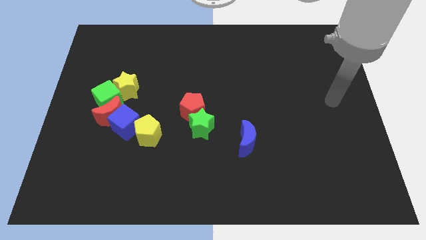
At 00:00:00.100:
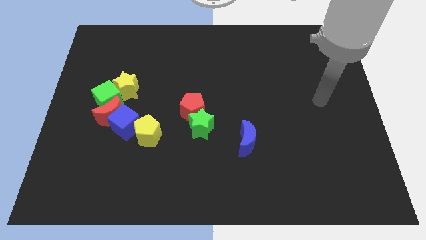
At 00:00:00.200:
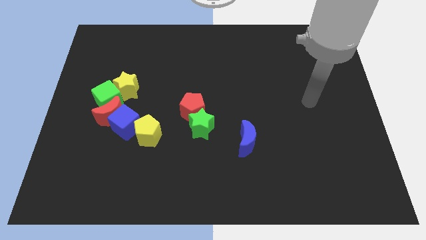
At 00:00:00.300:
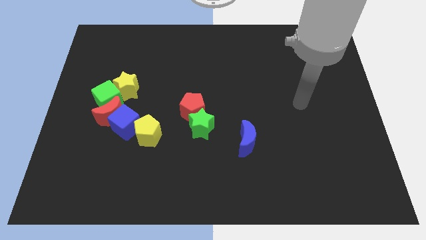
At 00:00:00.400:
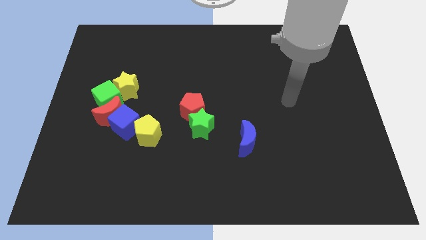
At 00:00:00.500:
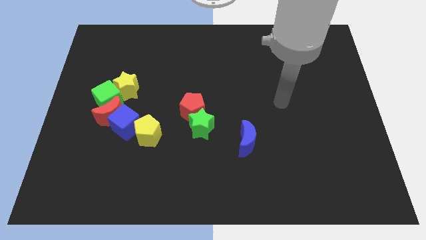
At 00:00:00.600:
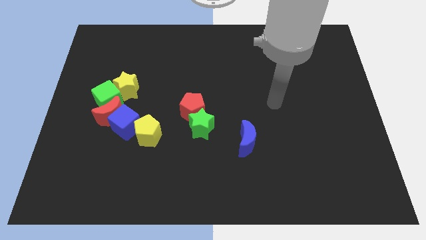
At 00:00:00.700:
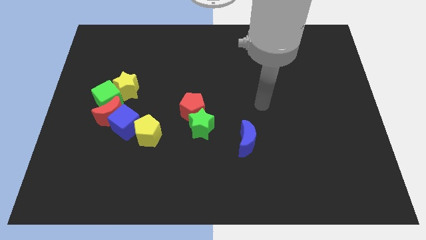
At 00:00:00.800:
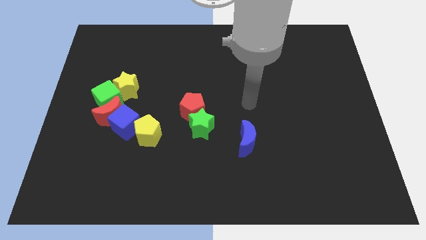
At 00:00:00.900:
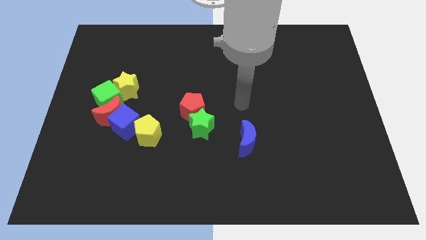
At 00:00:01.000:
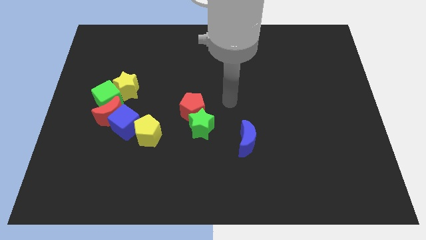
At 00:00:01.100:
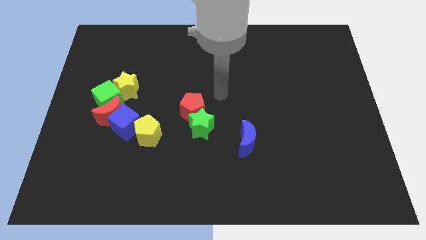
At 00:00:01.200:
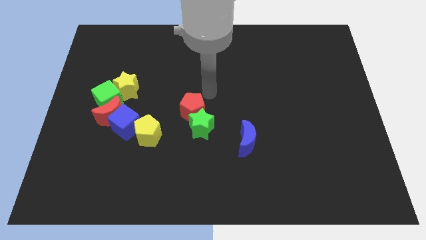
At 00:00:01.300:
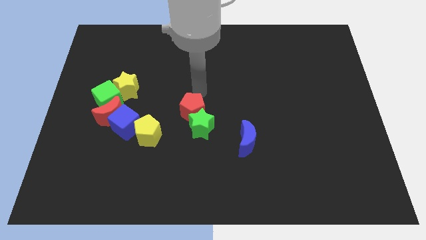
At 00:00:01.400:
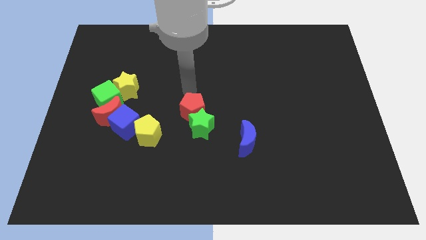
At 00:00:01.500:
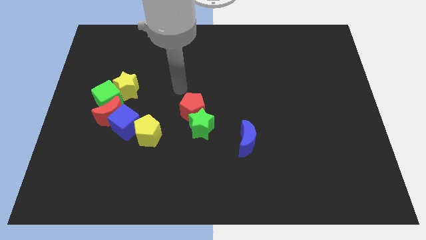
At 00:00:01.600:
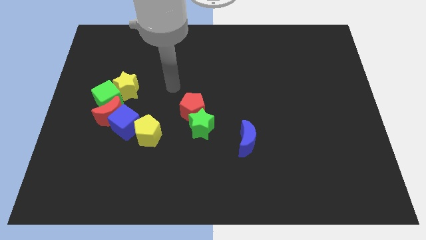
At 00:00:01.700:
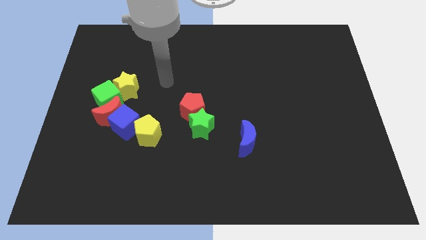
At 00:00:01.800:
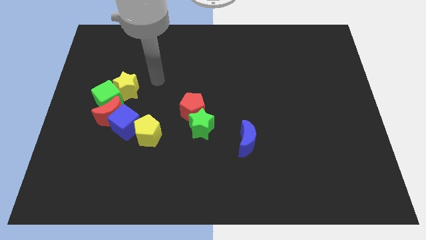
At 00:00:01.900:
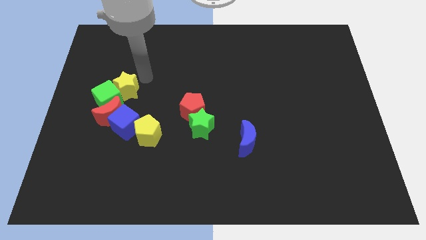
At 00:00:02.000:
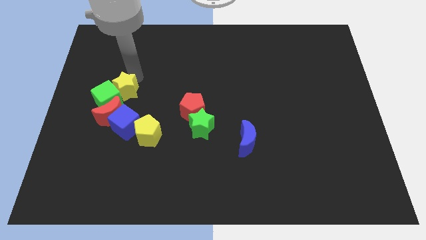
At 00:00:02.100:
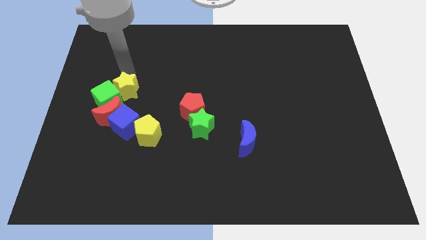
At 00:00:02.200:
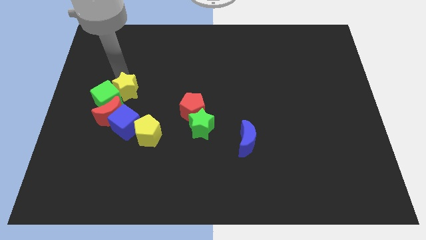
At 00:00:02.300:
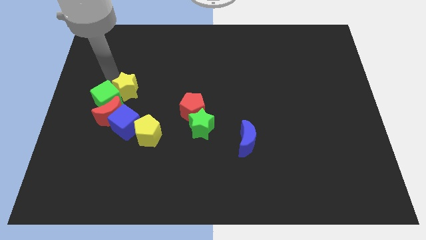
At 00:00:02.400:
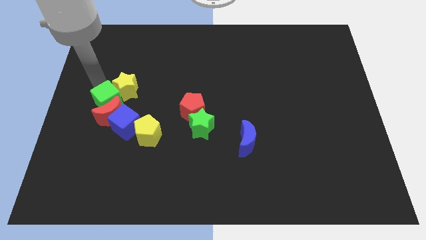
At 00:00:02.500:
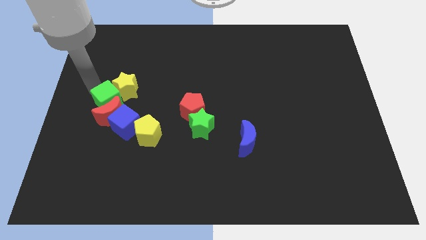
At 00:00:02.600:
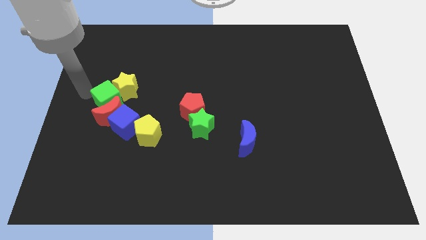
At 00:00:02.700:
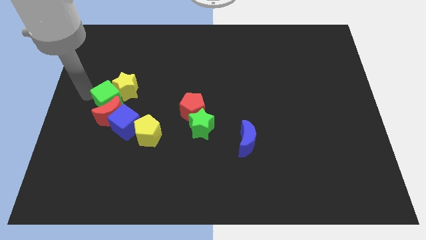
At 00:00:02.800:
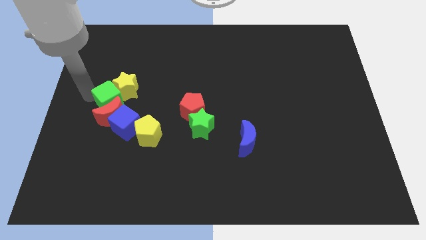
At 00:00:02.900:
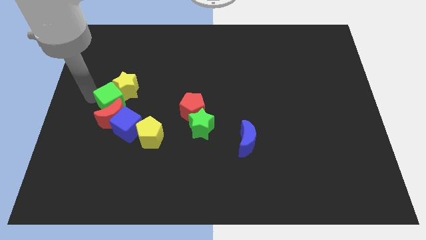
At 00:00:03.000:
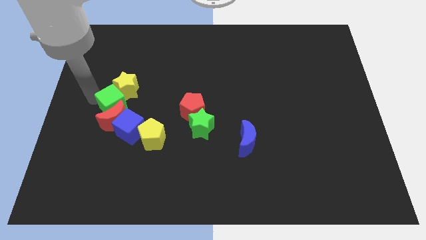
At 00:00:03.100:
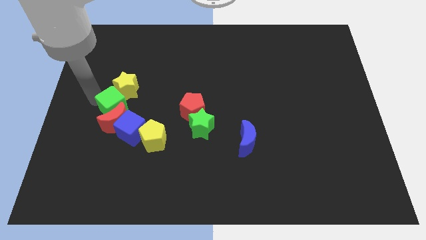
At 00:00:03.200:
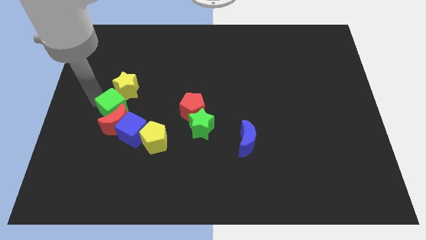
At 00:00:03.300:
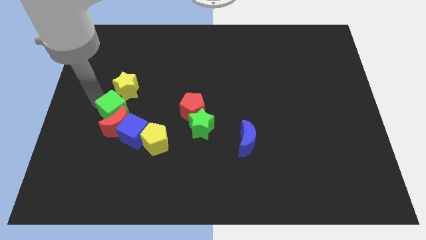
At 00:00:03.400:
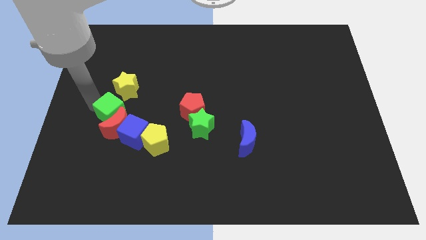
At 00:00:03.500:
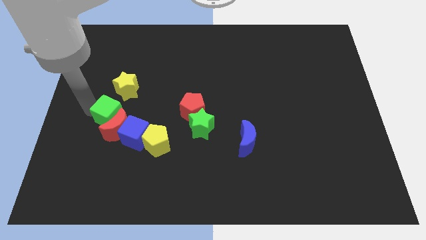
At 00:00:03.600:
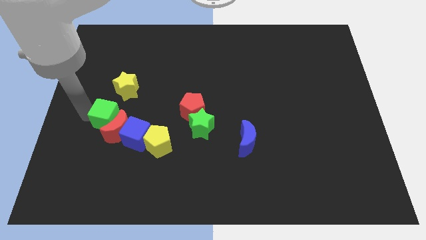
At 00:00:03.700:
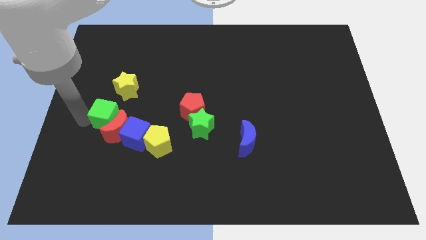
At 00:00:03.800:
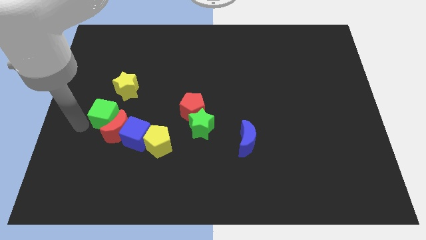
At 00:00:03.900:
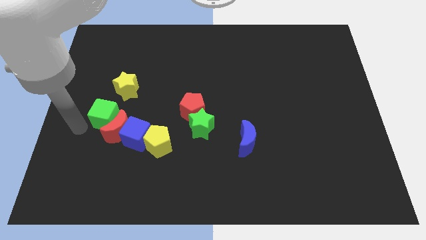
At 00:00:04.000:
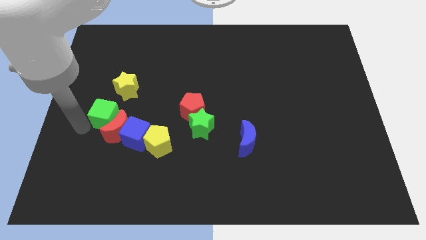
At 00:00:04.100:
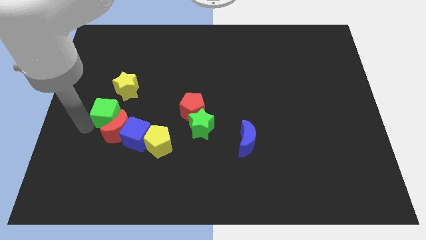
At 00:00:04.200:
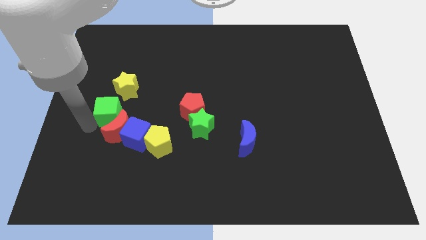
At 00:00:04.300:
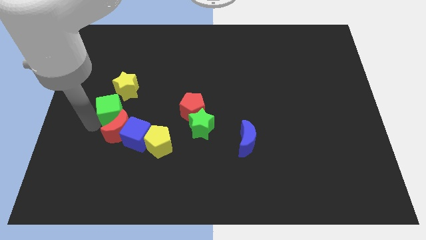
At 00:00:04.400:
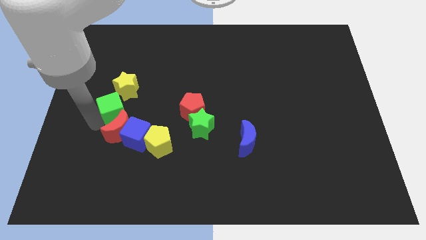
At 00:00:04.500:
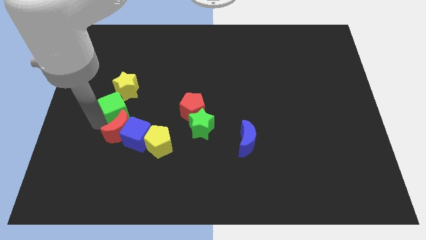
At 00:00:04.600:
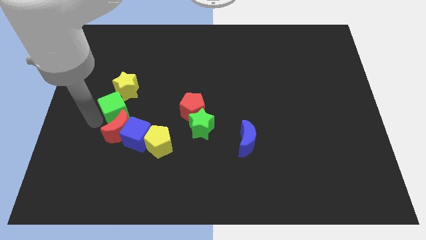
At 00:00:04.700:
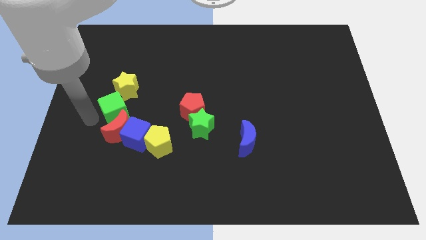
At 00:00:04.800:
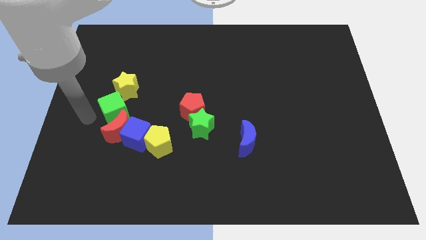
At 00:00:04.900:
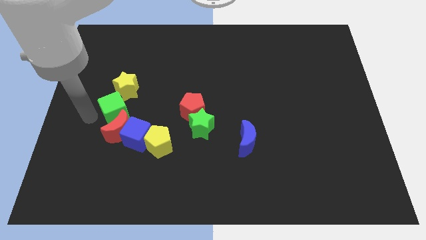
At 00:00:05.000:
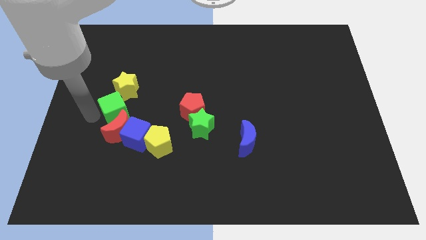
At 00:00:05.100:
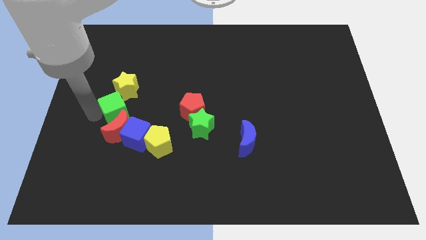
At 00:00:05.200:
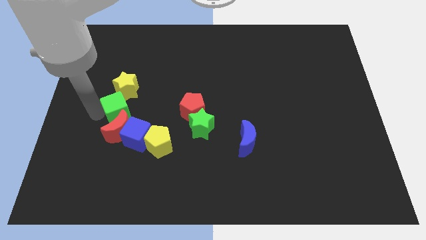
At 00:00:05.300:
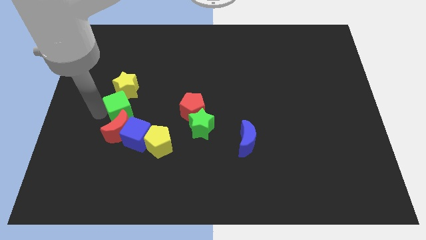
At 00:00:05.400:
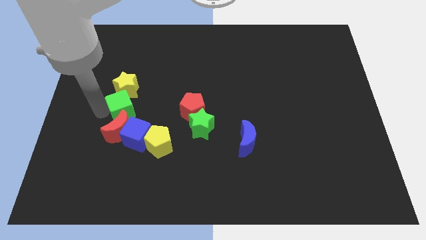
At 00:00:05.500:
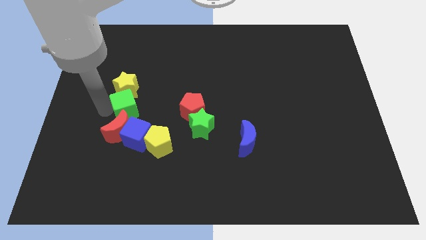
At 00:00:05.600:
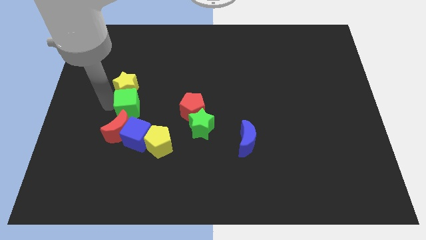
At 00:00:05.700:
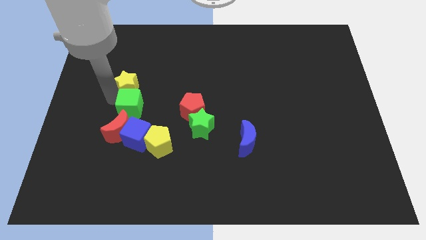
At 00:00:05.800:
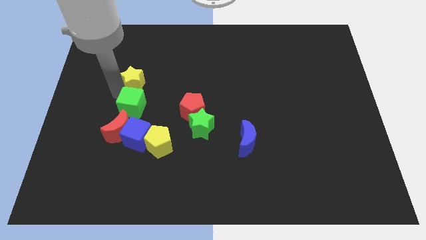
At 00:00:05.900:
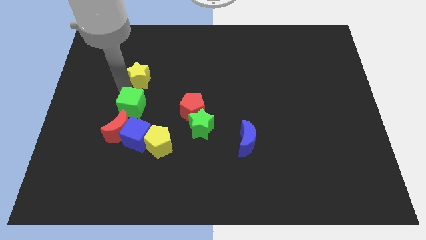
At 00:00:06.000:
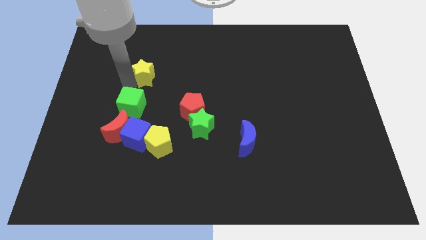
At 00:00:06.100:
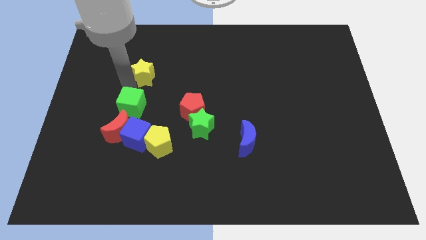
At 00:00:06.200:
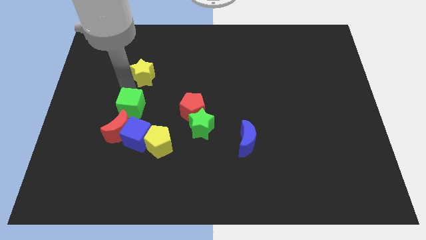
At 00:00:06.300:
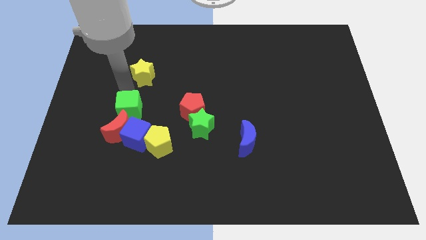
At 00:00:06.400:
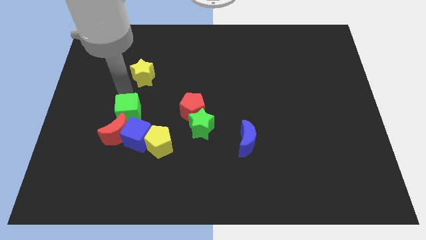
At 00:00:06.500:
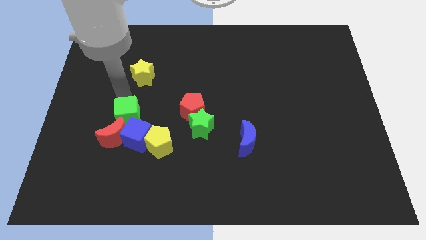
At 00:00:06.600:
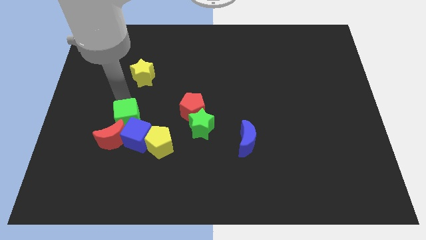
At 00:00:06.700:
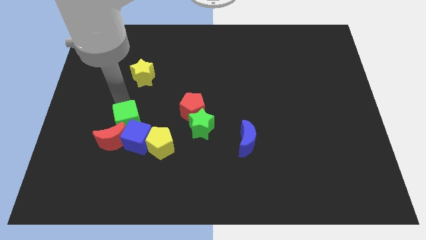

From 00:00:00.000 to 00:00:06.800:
put the green cube to the blue cube

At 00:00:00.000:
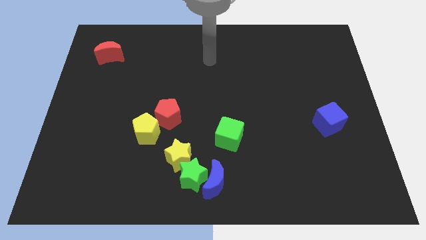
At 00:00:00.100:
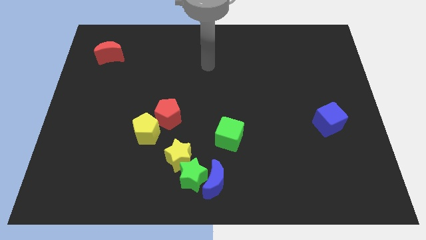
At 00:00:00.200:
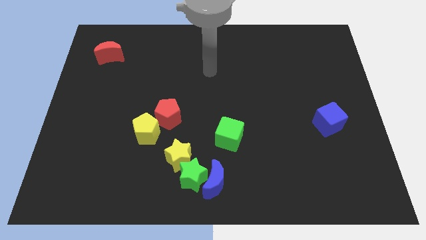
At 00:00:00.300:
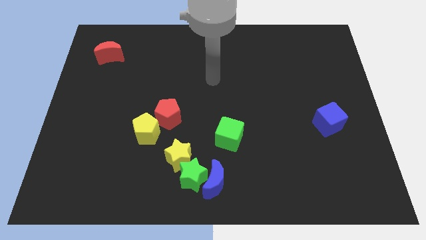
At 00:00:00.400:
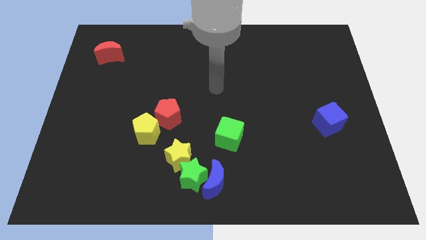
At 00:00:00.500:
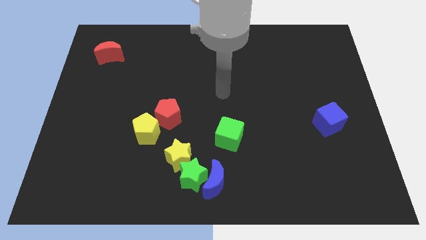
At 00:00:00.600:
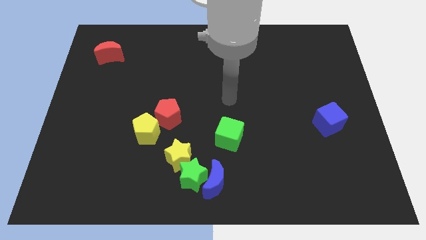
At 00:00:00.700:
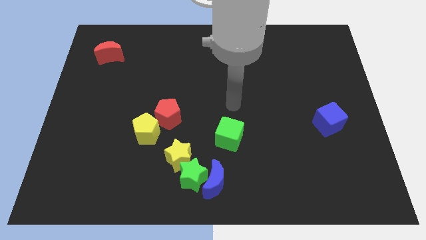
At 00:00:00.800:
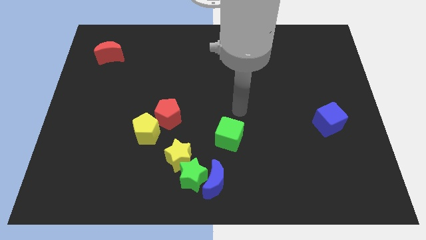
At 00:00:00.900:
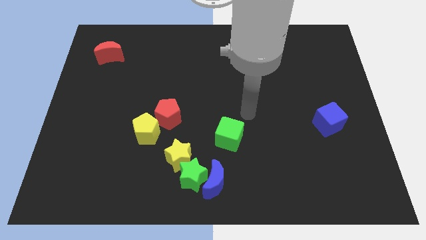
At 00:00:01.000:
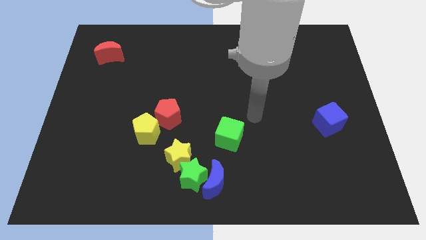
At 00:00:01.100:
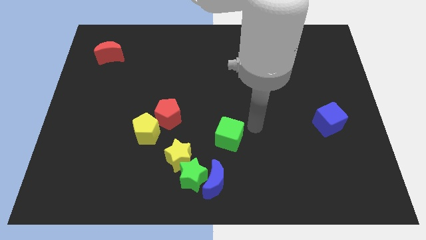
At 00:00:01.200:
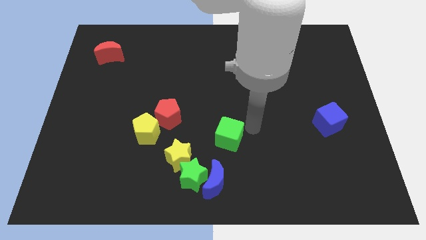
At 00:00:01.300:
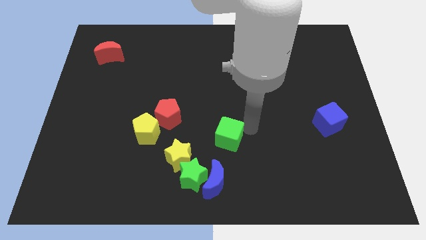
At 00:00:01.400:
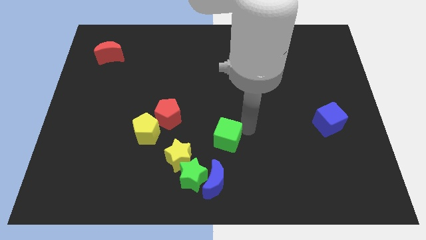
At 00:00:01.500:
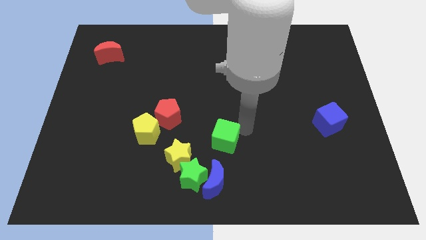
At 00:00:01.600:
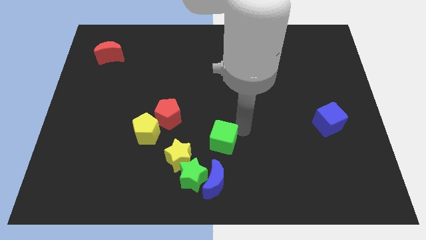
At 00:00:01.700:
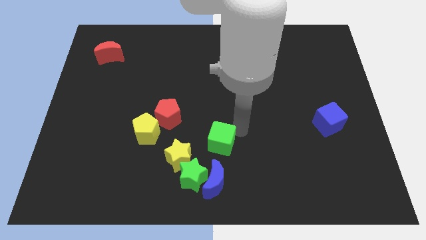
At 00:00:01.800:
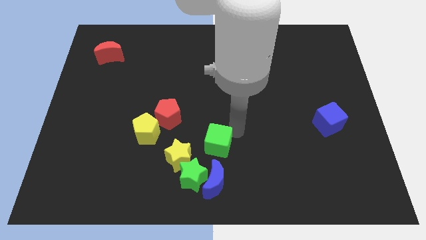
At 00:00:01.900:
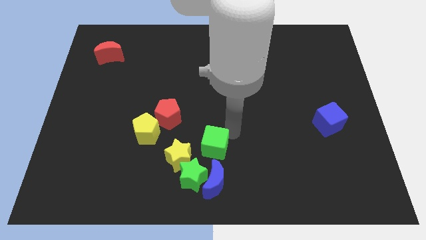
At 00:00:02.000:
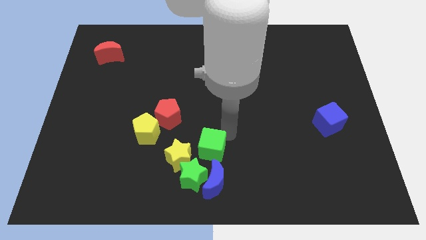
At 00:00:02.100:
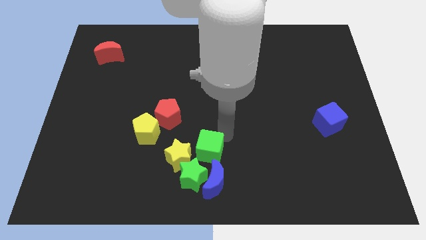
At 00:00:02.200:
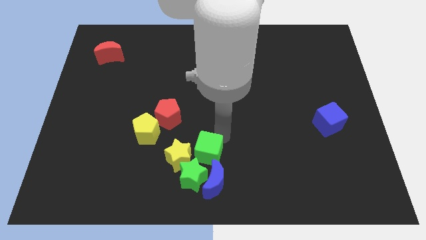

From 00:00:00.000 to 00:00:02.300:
move the green cube next to the yellow star
